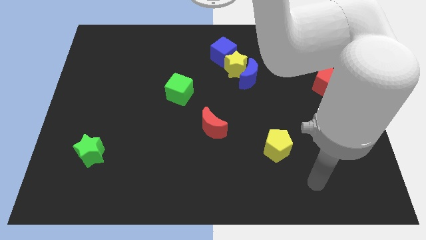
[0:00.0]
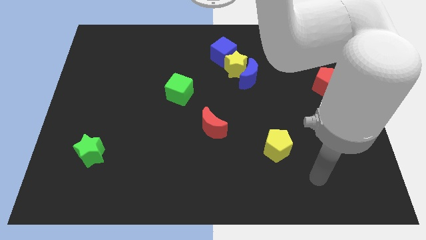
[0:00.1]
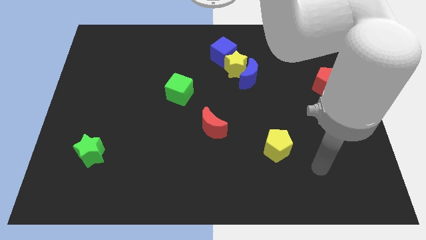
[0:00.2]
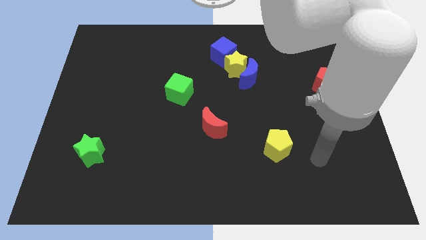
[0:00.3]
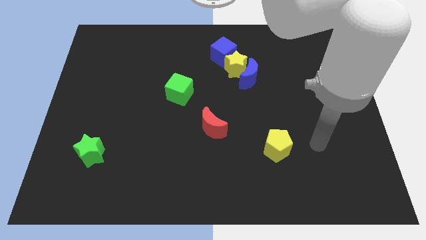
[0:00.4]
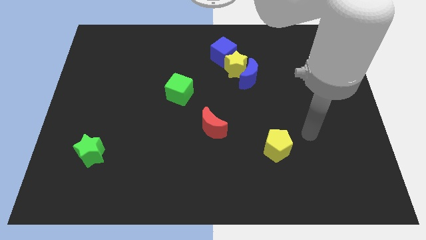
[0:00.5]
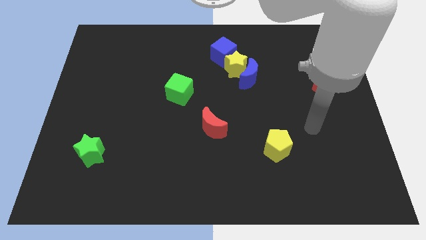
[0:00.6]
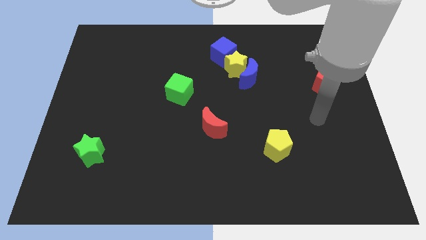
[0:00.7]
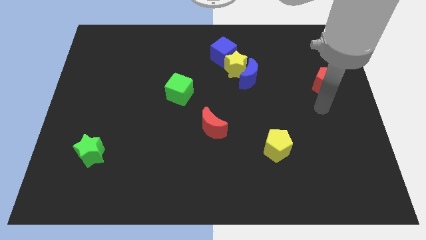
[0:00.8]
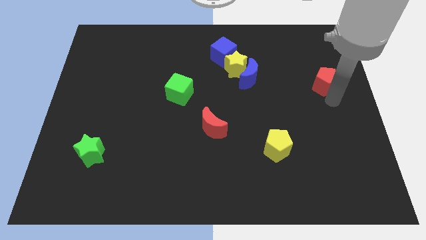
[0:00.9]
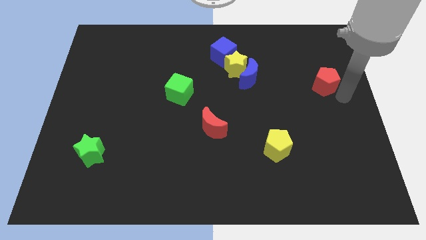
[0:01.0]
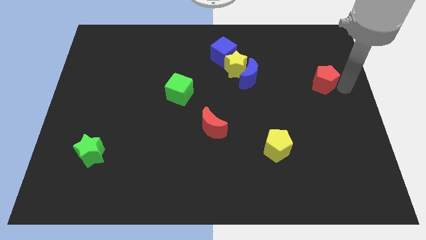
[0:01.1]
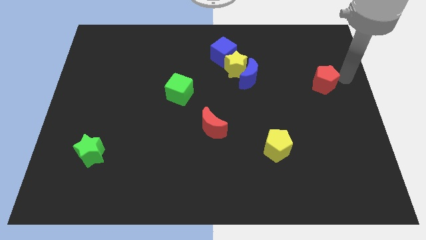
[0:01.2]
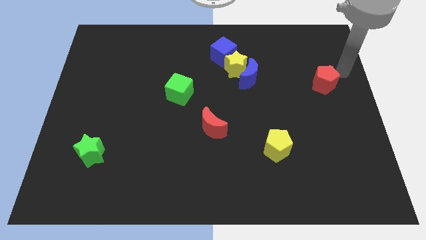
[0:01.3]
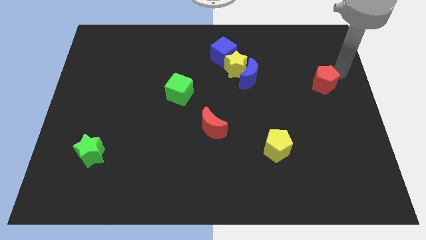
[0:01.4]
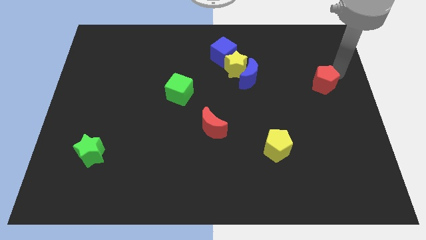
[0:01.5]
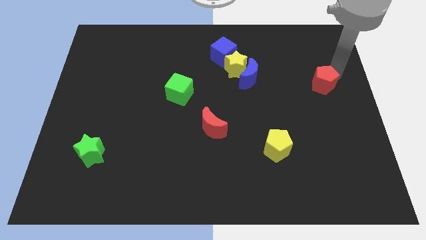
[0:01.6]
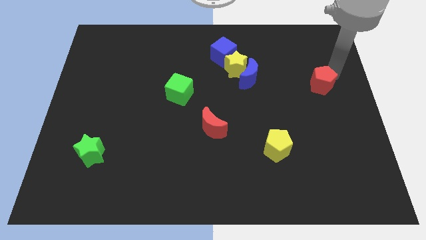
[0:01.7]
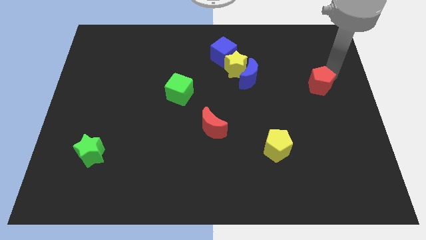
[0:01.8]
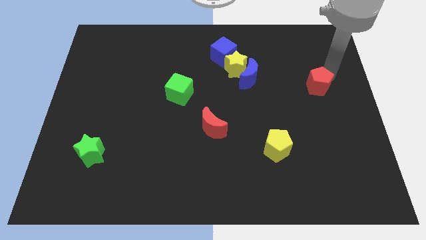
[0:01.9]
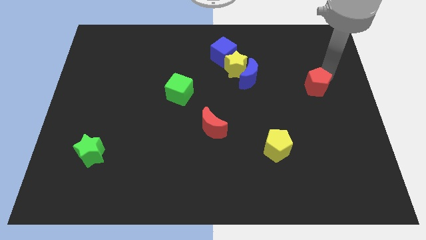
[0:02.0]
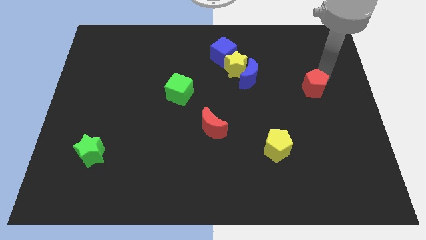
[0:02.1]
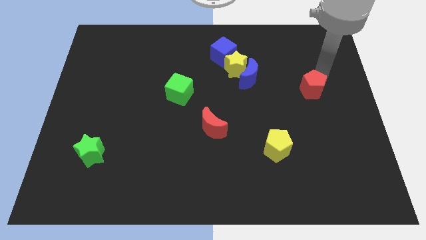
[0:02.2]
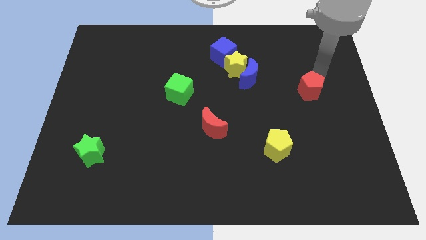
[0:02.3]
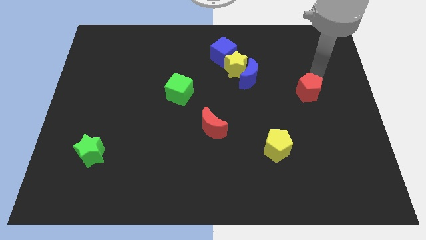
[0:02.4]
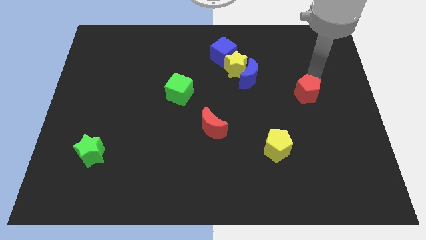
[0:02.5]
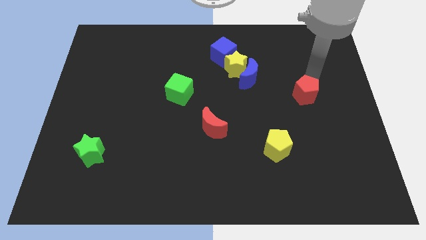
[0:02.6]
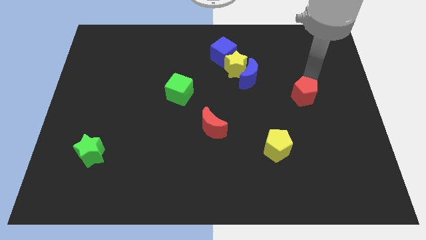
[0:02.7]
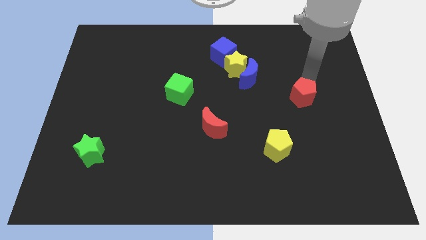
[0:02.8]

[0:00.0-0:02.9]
slightly slide the red pentagon down and to the left diagonally

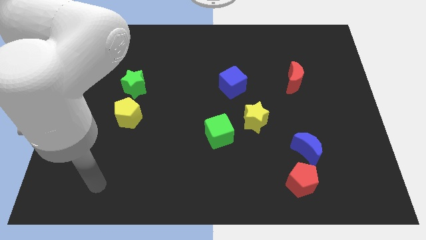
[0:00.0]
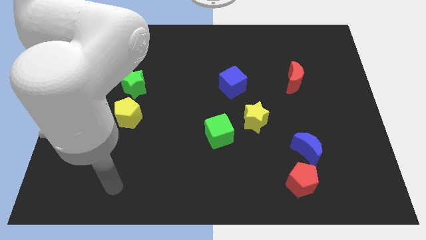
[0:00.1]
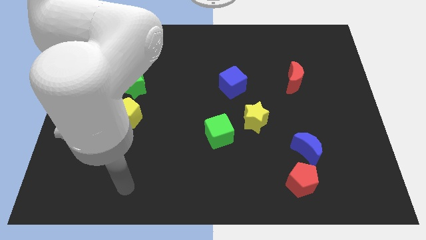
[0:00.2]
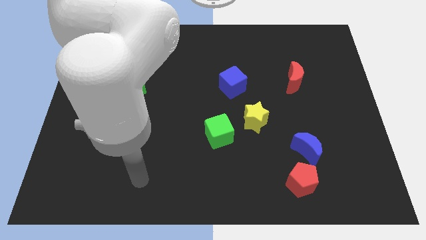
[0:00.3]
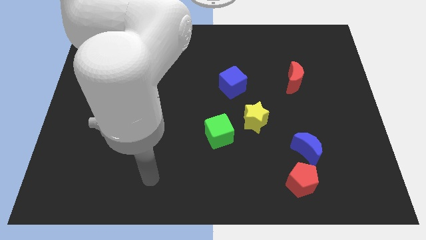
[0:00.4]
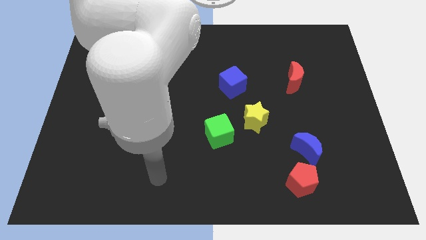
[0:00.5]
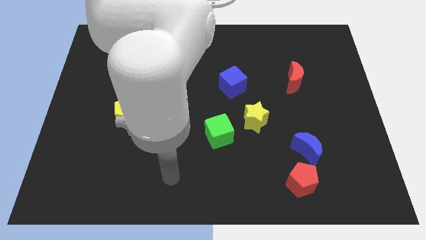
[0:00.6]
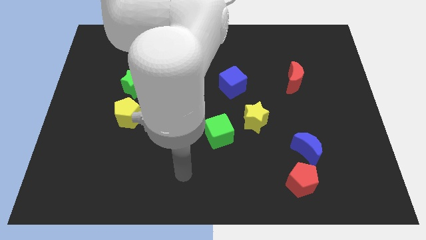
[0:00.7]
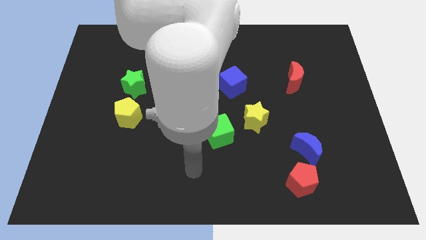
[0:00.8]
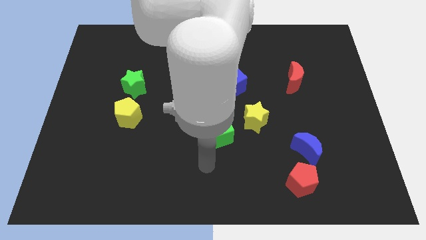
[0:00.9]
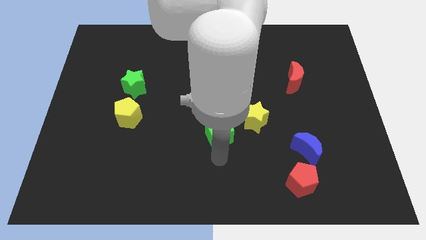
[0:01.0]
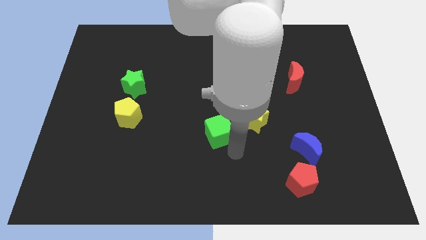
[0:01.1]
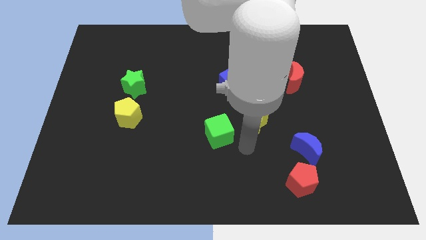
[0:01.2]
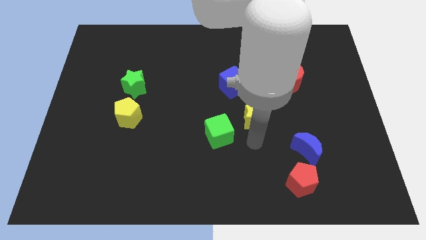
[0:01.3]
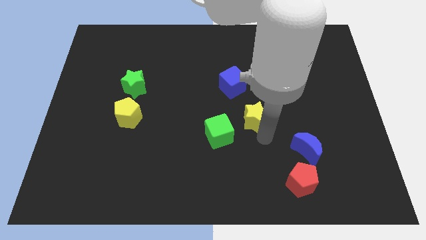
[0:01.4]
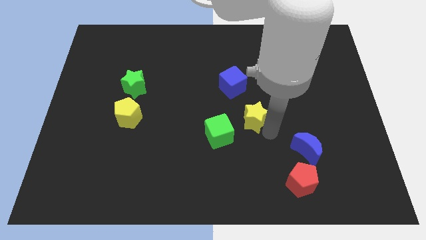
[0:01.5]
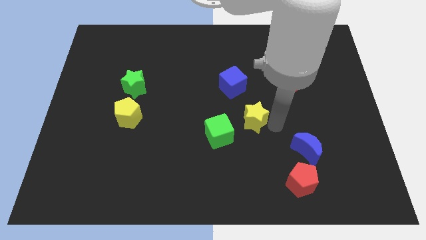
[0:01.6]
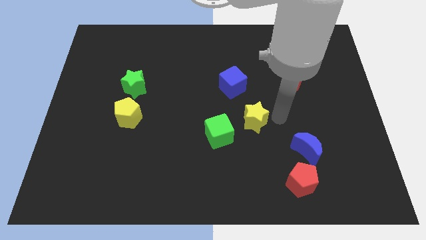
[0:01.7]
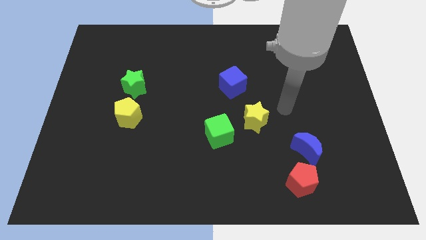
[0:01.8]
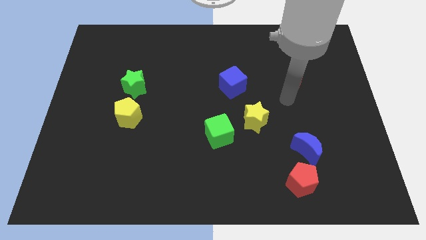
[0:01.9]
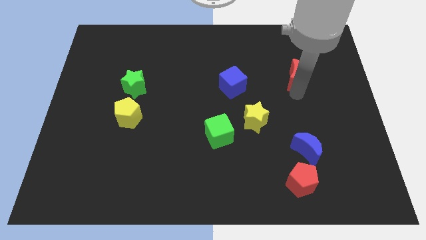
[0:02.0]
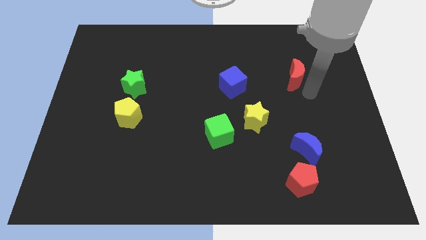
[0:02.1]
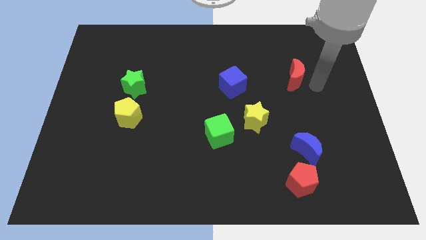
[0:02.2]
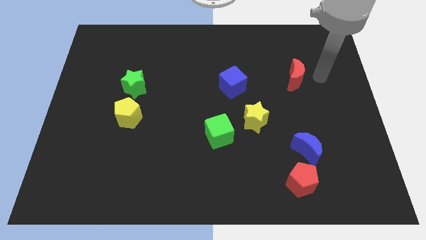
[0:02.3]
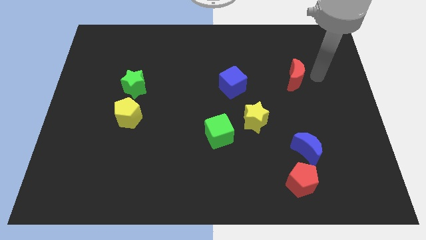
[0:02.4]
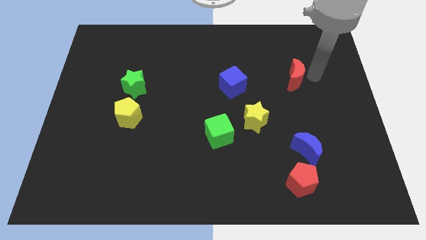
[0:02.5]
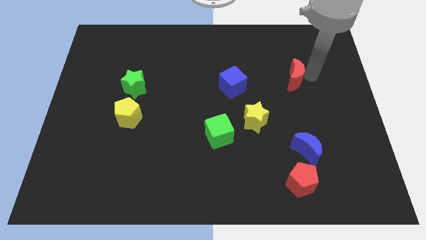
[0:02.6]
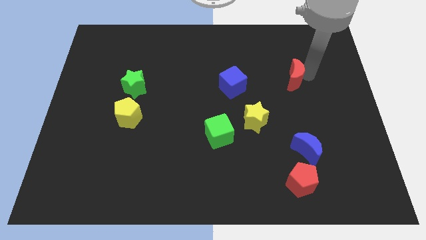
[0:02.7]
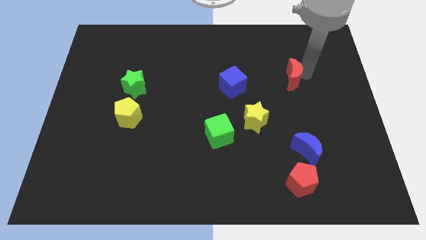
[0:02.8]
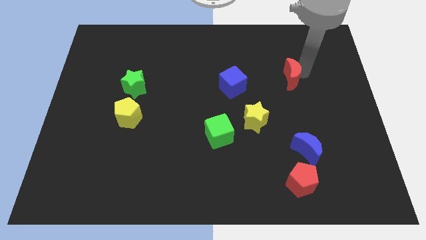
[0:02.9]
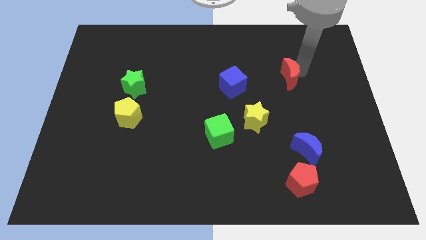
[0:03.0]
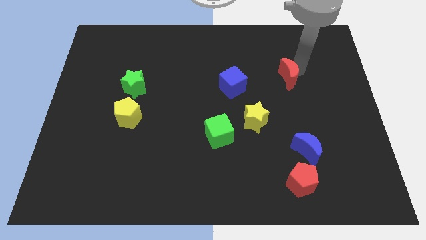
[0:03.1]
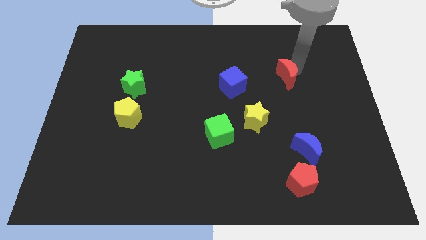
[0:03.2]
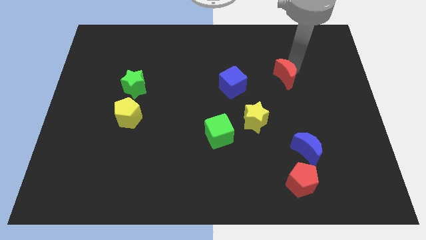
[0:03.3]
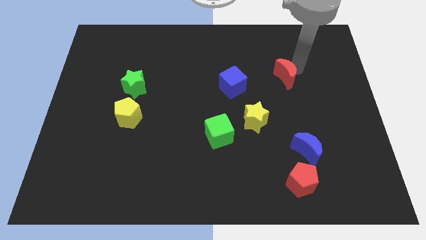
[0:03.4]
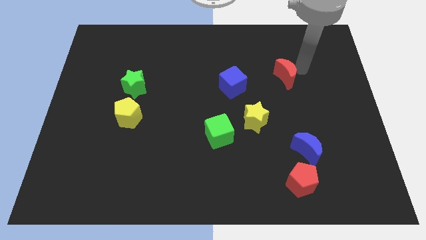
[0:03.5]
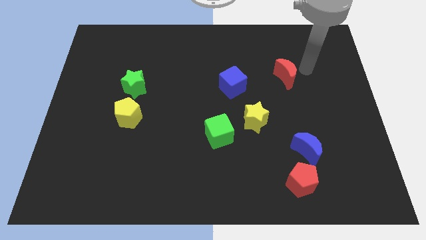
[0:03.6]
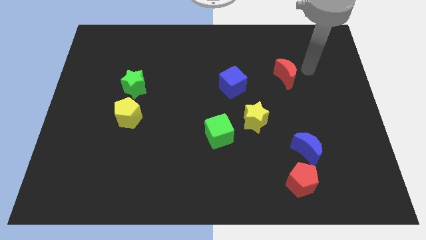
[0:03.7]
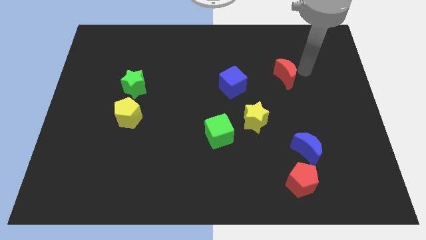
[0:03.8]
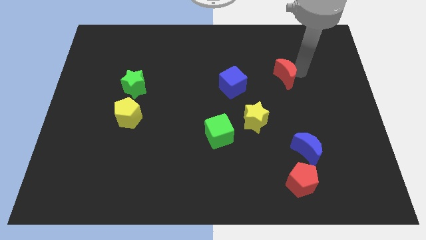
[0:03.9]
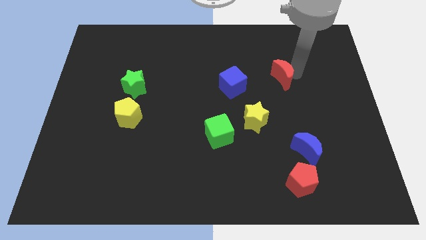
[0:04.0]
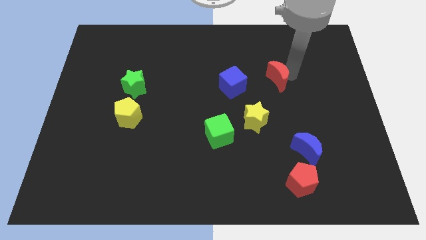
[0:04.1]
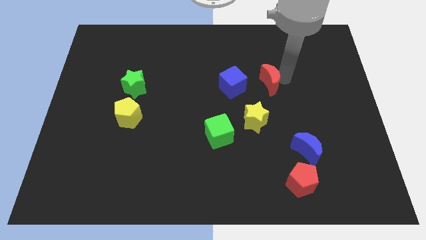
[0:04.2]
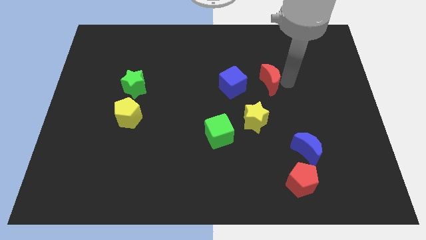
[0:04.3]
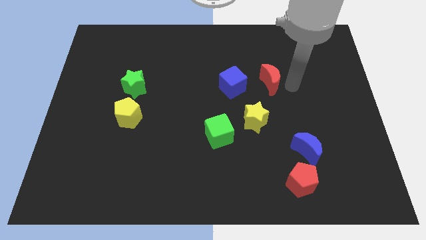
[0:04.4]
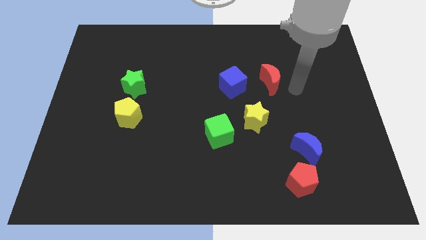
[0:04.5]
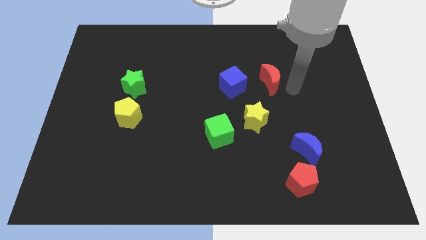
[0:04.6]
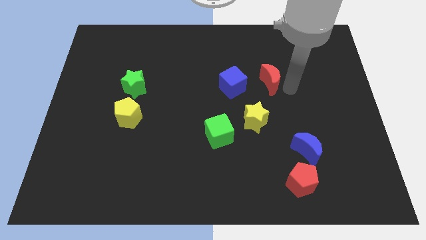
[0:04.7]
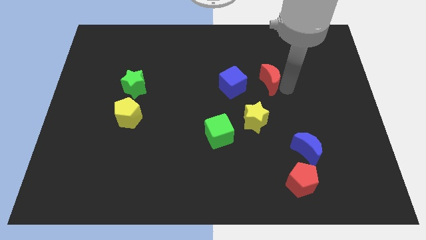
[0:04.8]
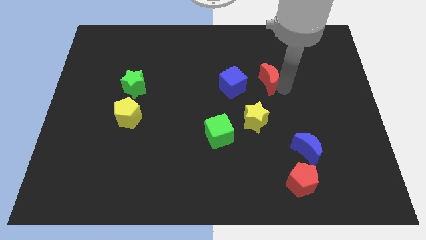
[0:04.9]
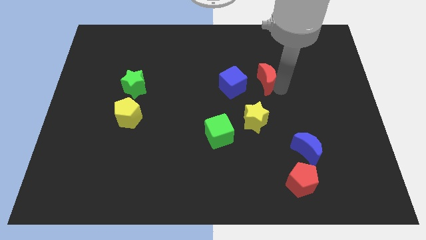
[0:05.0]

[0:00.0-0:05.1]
slightly push the red moon left
